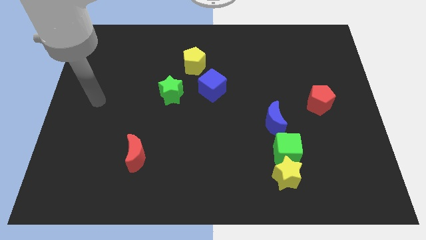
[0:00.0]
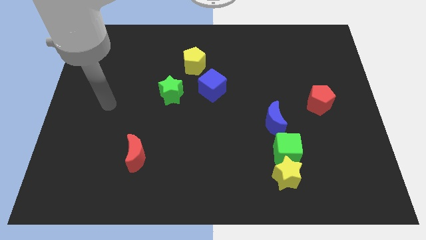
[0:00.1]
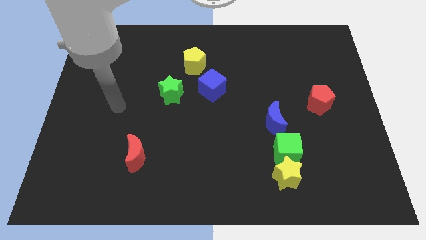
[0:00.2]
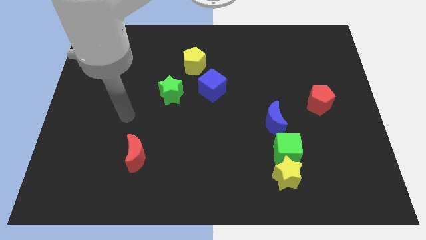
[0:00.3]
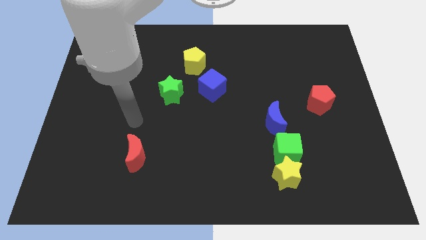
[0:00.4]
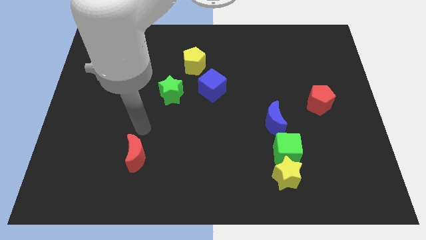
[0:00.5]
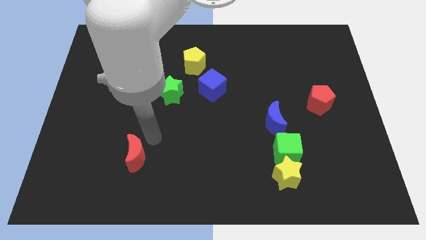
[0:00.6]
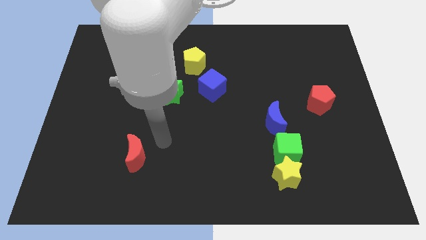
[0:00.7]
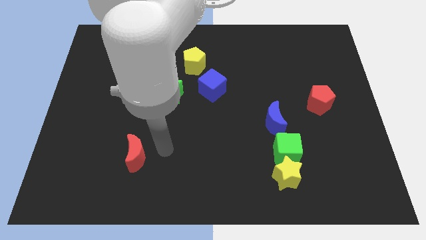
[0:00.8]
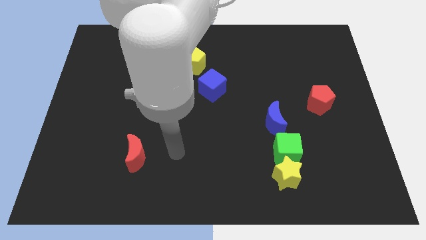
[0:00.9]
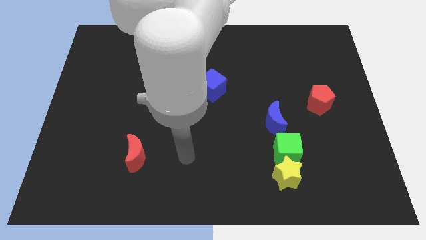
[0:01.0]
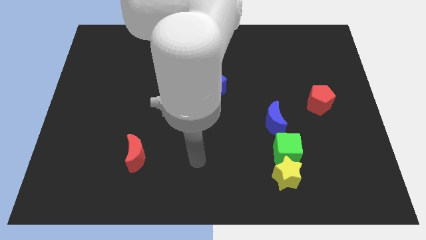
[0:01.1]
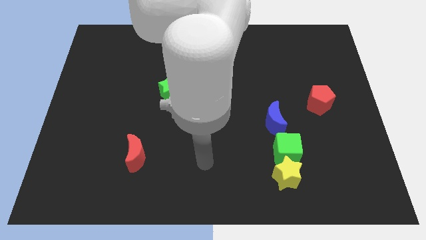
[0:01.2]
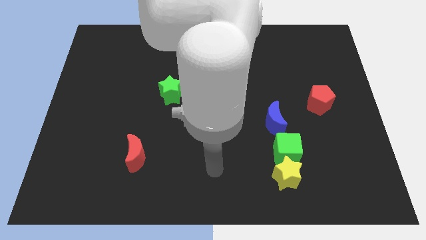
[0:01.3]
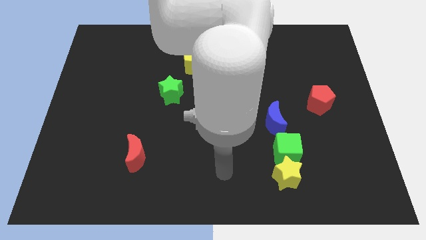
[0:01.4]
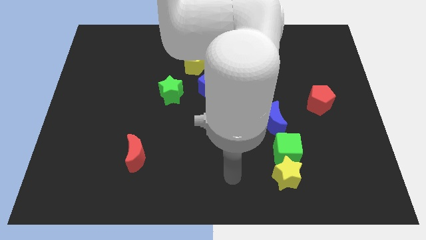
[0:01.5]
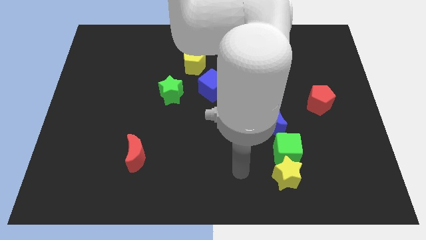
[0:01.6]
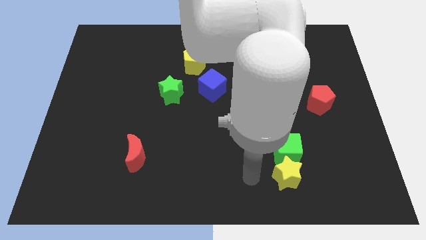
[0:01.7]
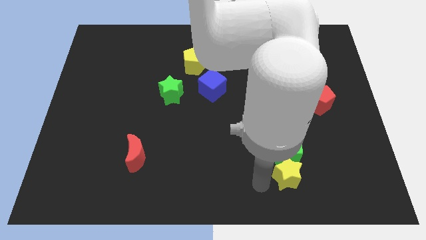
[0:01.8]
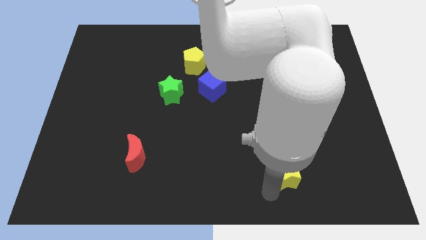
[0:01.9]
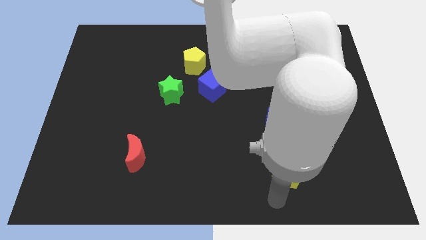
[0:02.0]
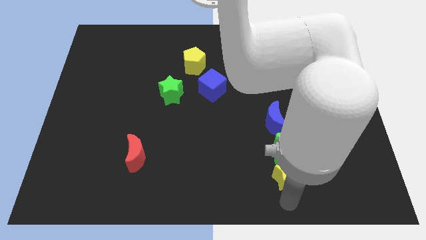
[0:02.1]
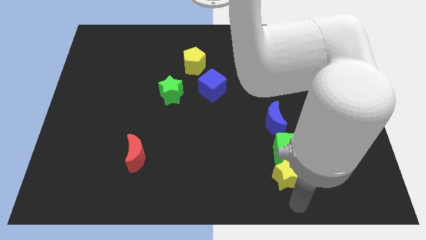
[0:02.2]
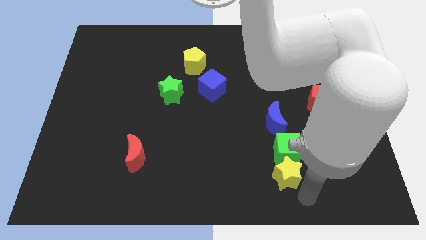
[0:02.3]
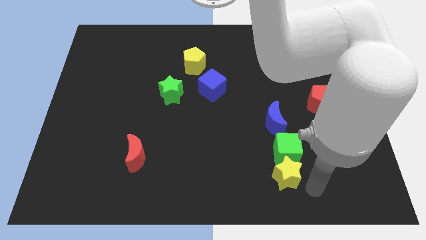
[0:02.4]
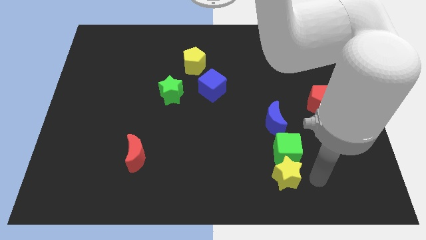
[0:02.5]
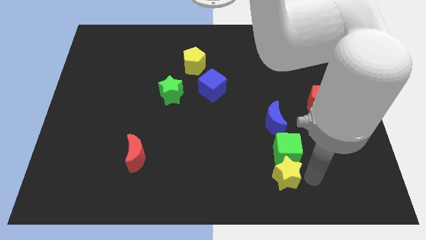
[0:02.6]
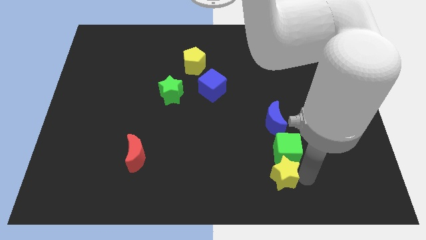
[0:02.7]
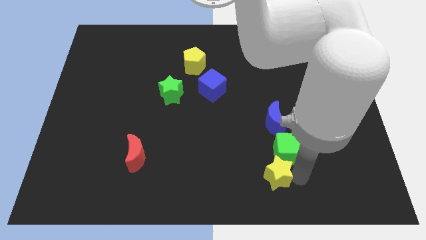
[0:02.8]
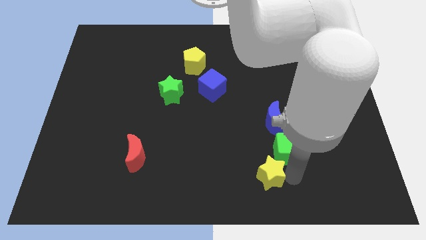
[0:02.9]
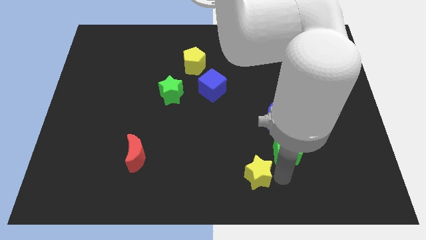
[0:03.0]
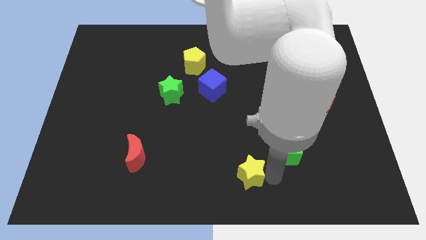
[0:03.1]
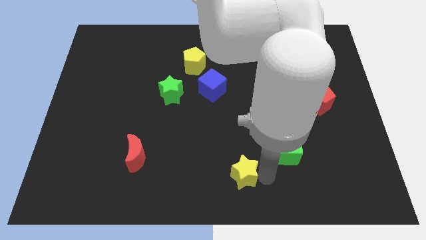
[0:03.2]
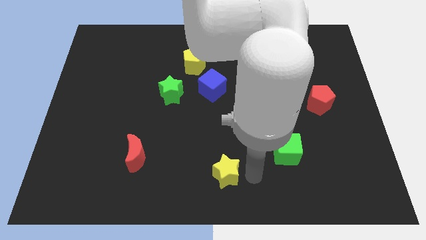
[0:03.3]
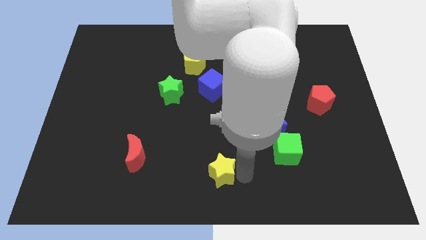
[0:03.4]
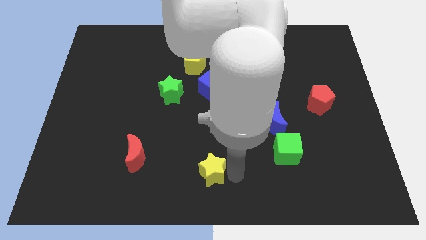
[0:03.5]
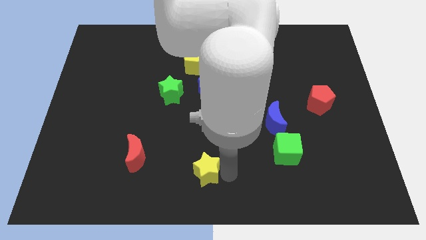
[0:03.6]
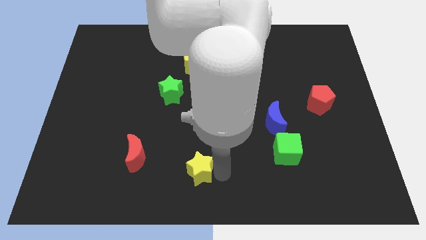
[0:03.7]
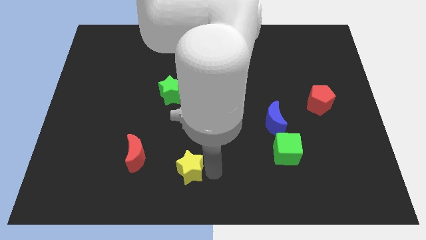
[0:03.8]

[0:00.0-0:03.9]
push the yellow star left

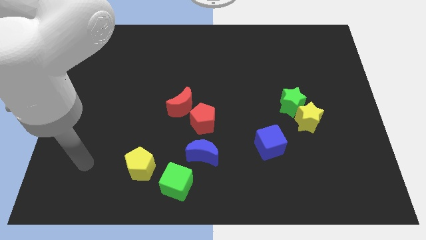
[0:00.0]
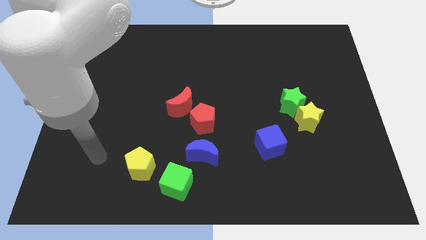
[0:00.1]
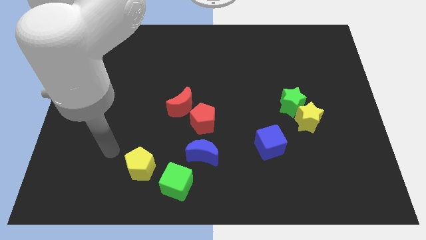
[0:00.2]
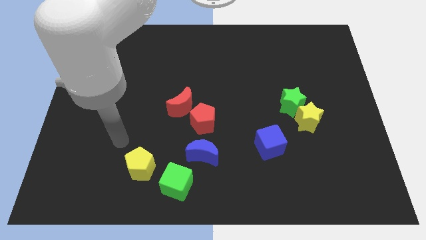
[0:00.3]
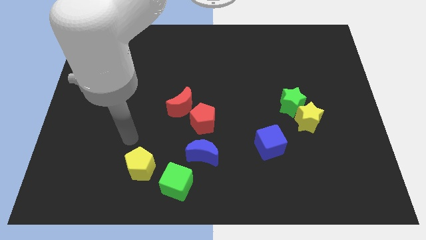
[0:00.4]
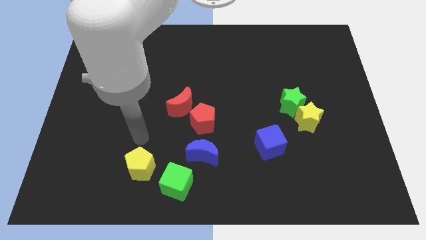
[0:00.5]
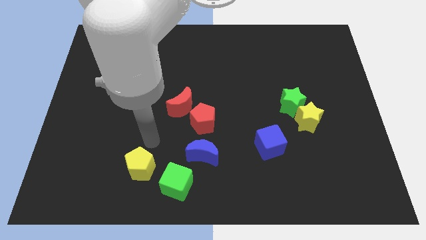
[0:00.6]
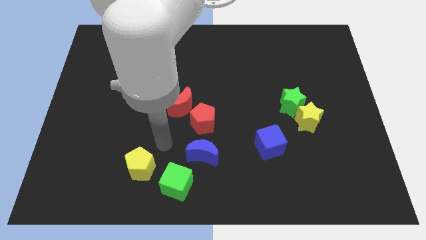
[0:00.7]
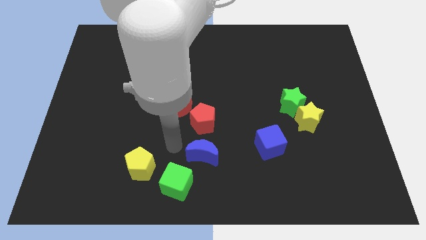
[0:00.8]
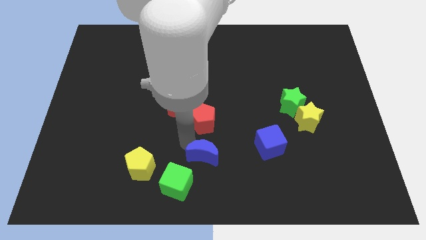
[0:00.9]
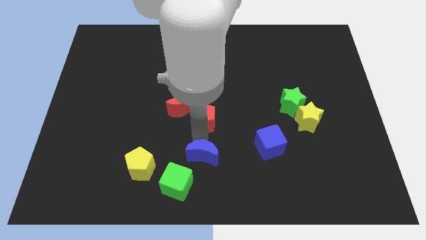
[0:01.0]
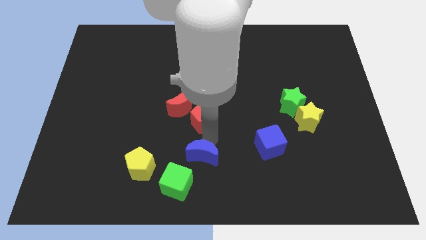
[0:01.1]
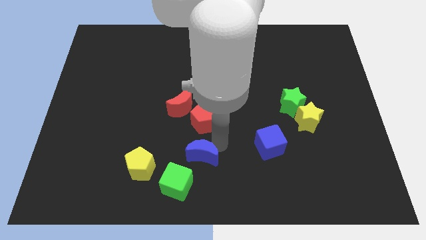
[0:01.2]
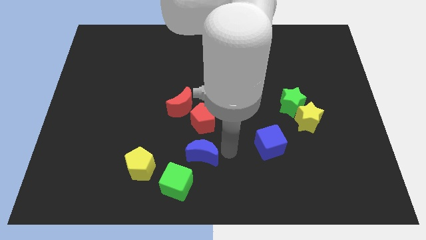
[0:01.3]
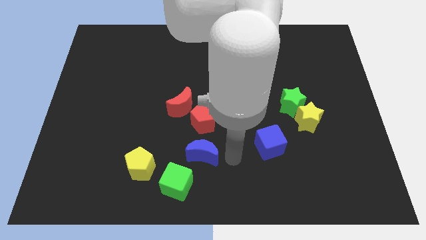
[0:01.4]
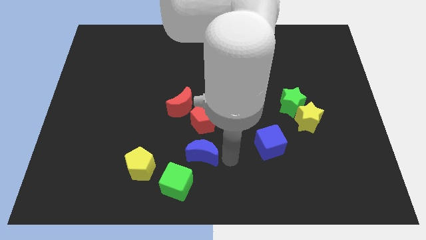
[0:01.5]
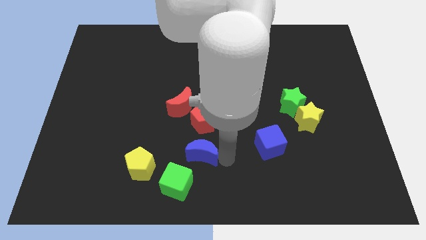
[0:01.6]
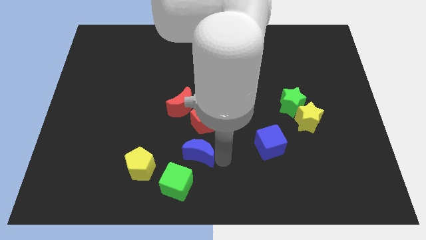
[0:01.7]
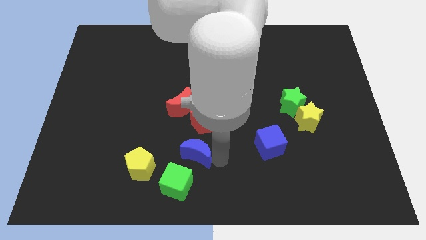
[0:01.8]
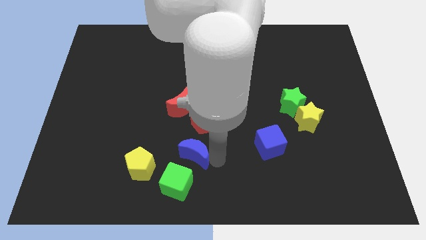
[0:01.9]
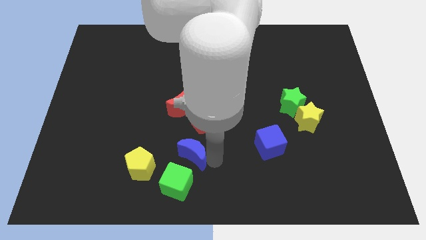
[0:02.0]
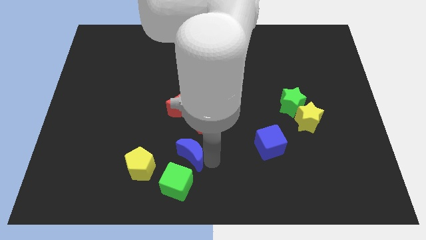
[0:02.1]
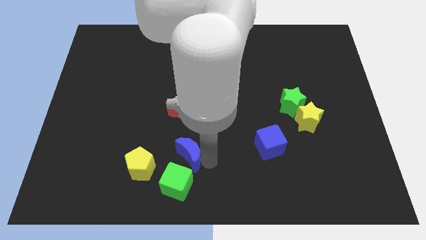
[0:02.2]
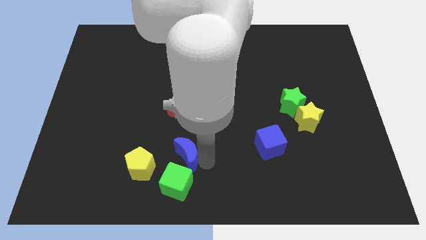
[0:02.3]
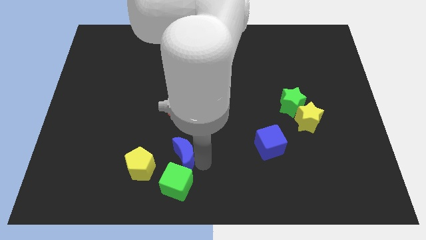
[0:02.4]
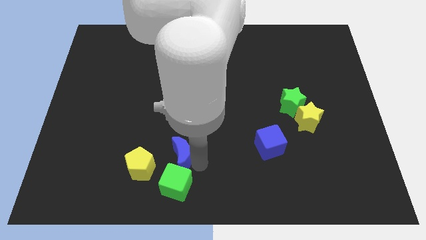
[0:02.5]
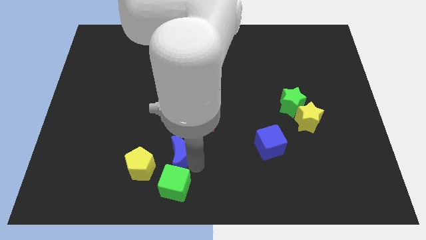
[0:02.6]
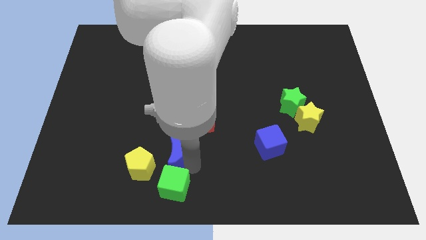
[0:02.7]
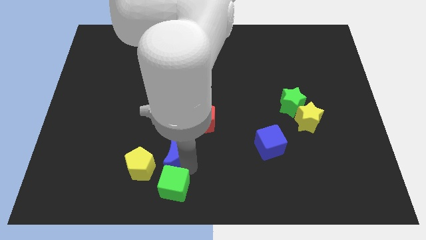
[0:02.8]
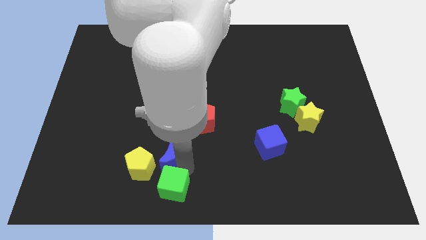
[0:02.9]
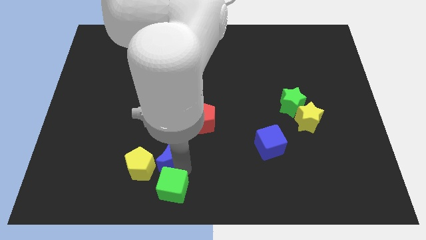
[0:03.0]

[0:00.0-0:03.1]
slightly slide the blue moon to the left

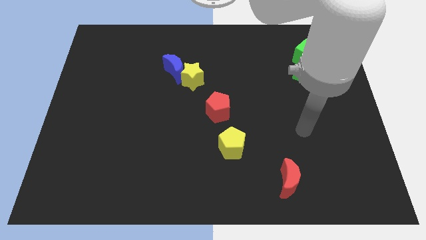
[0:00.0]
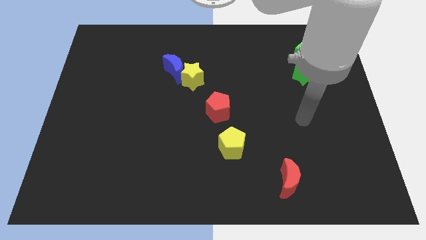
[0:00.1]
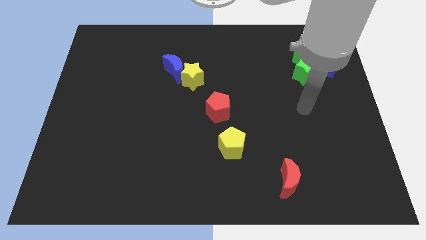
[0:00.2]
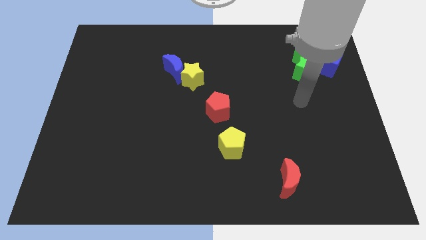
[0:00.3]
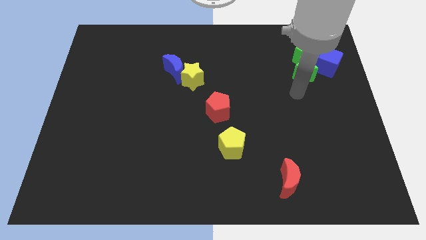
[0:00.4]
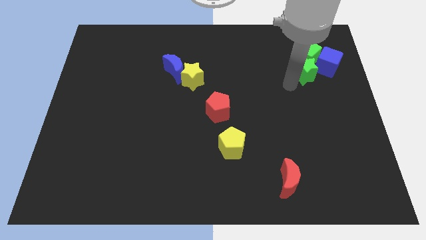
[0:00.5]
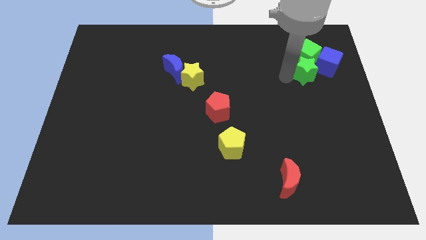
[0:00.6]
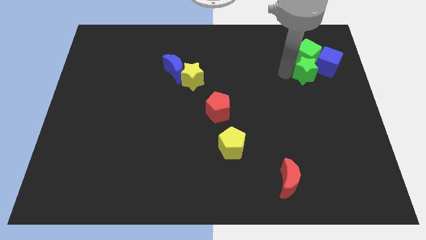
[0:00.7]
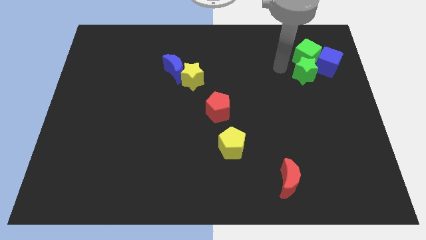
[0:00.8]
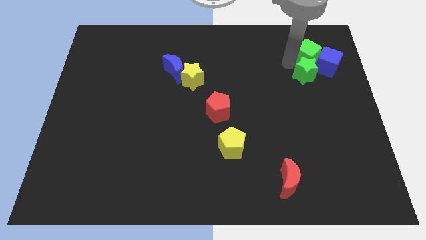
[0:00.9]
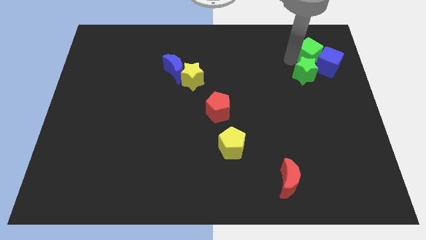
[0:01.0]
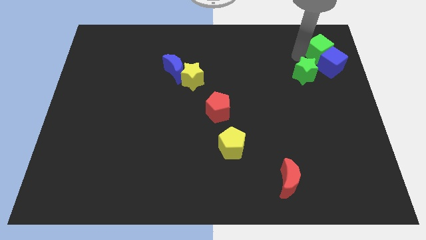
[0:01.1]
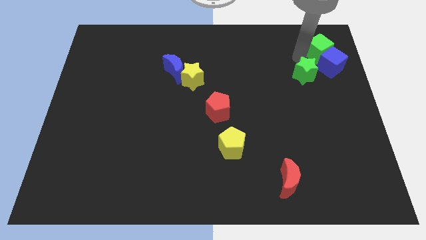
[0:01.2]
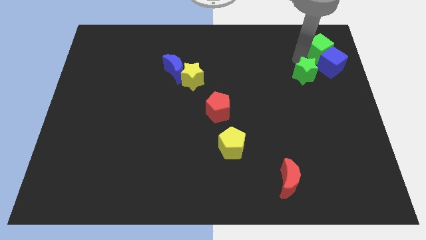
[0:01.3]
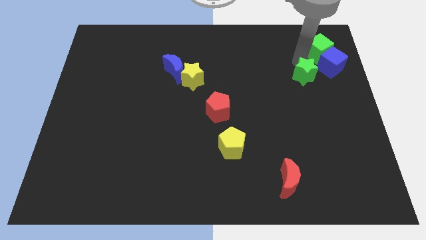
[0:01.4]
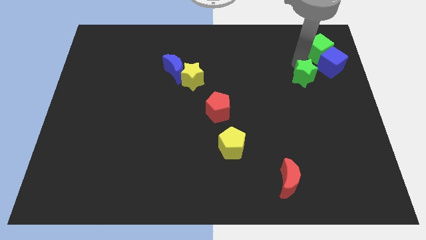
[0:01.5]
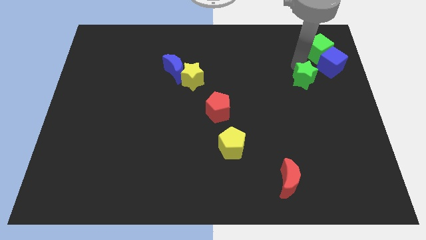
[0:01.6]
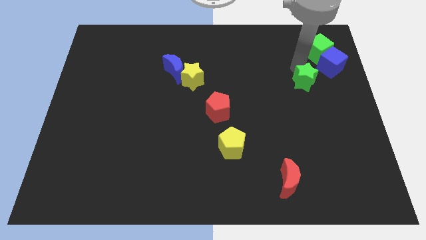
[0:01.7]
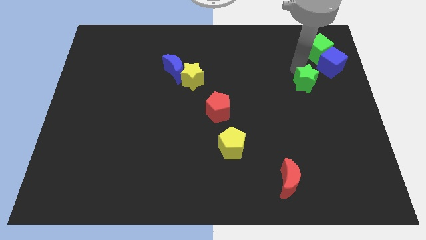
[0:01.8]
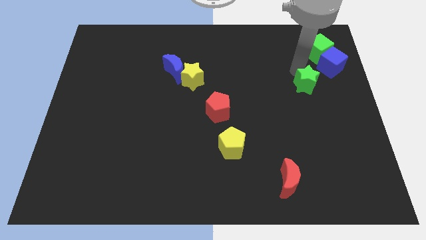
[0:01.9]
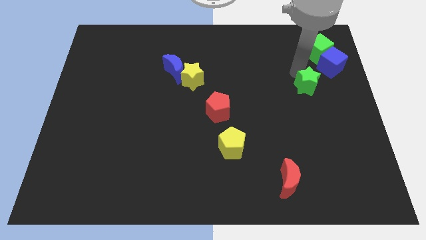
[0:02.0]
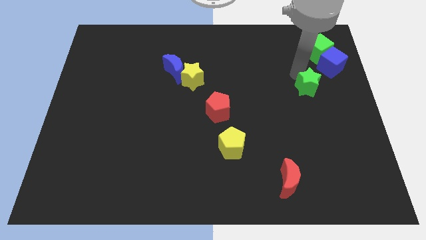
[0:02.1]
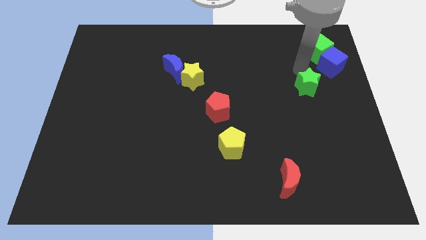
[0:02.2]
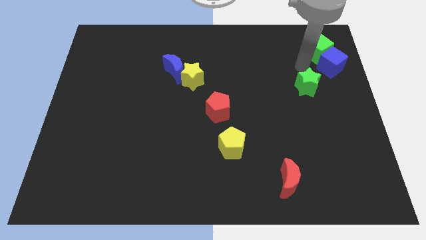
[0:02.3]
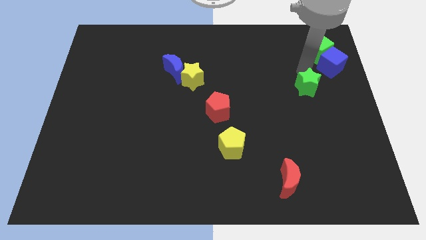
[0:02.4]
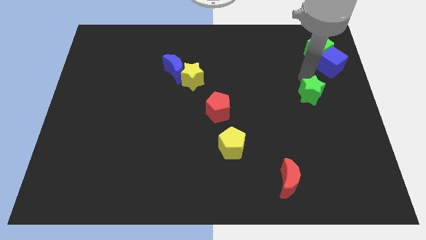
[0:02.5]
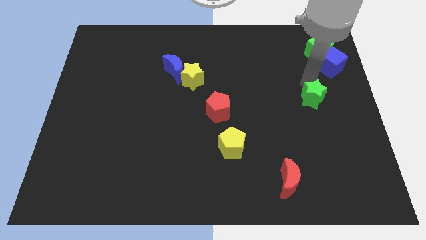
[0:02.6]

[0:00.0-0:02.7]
slightly push the green star down
